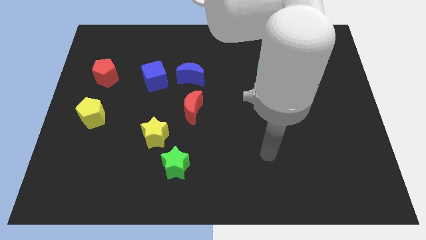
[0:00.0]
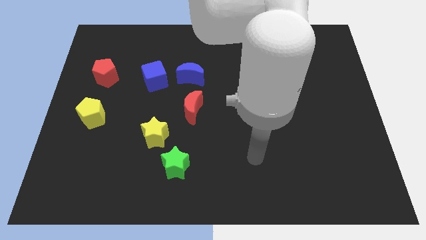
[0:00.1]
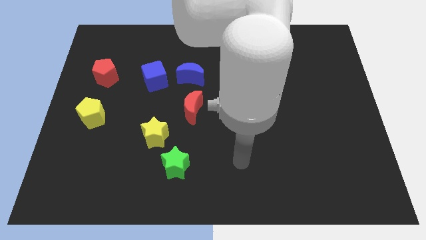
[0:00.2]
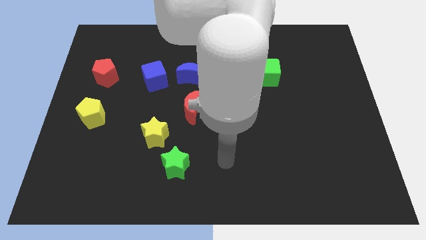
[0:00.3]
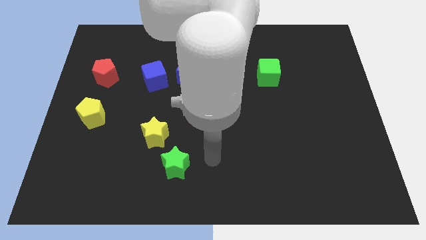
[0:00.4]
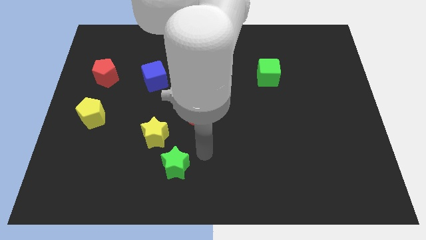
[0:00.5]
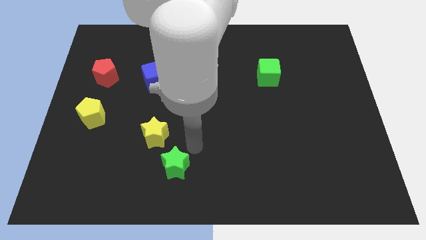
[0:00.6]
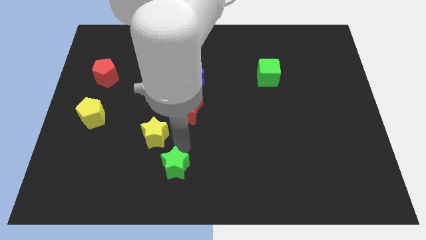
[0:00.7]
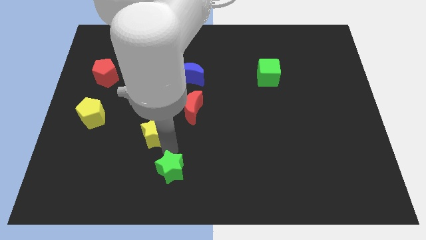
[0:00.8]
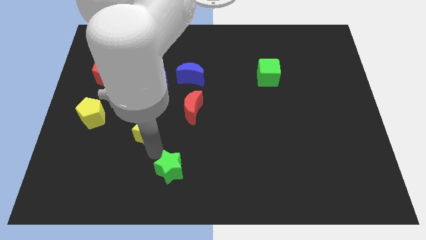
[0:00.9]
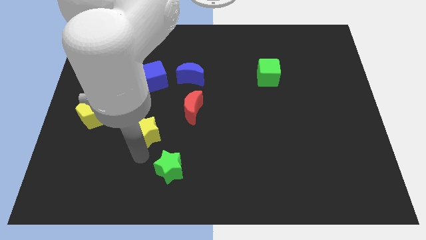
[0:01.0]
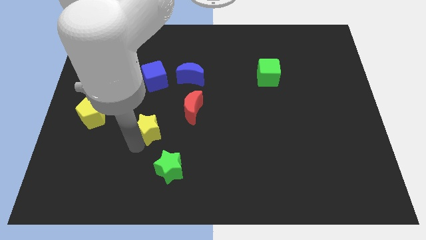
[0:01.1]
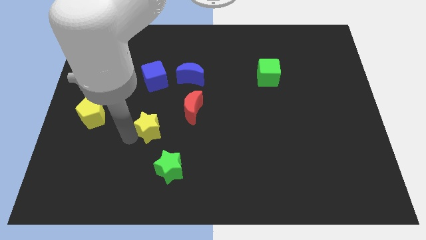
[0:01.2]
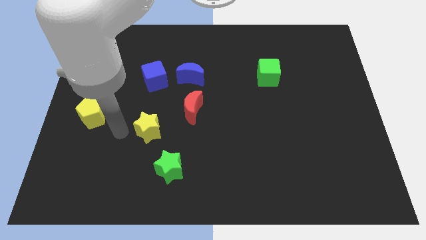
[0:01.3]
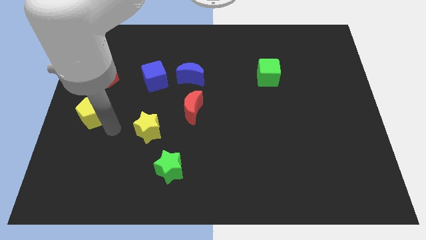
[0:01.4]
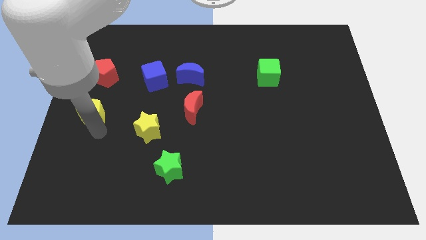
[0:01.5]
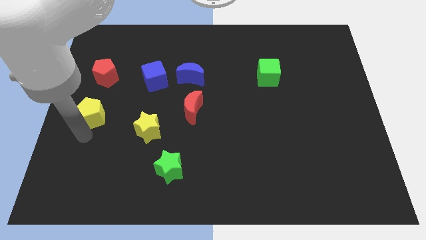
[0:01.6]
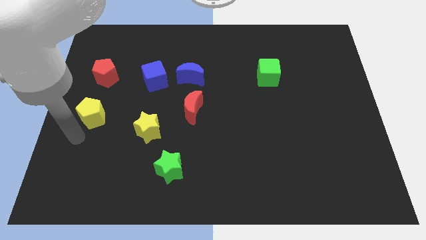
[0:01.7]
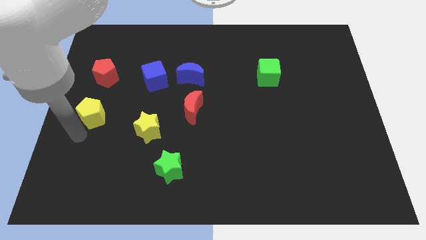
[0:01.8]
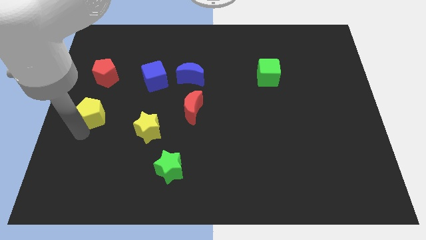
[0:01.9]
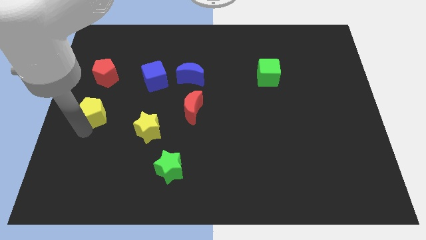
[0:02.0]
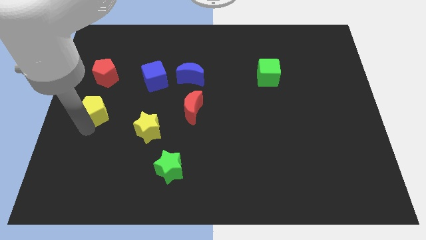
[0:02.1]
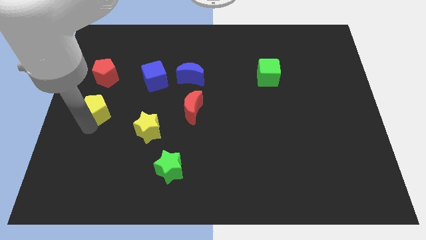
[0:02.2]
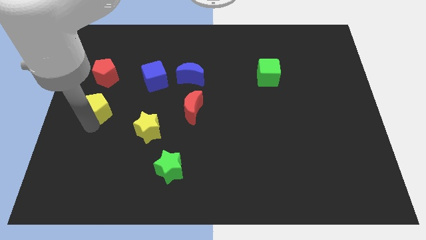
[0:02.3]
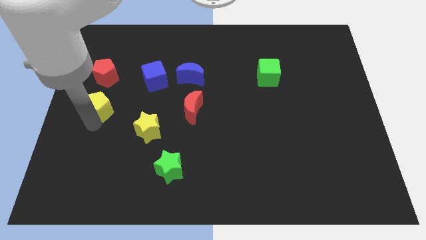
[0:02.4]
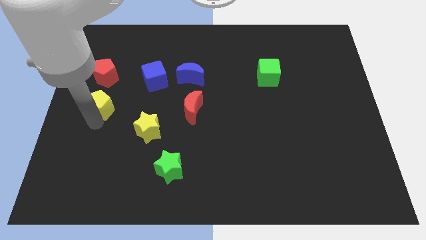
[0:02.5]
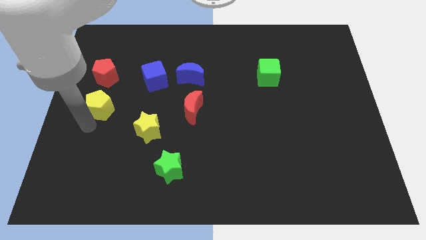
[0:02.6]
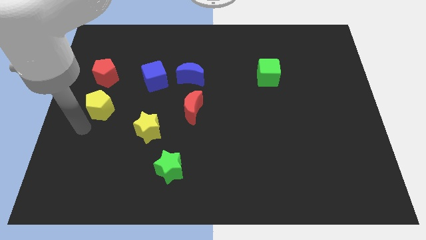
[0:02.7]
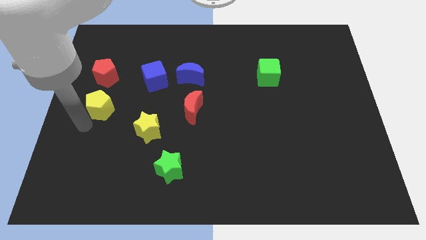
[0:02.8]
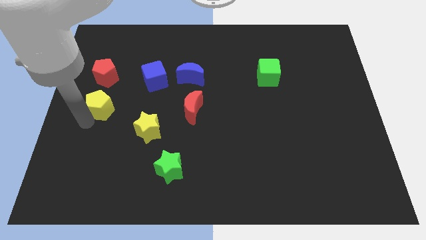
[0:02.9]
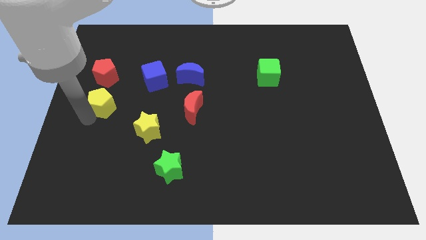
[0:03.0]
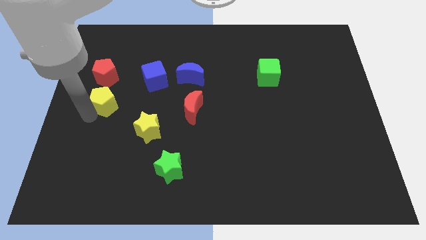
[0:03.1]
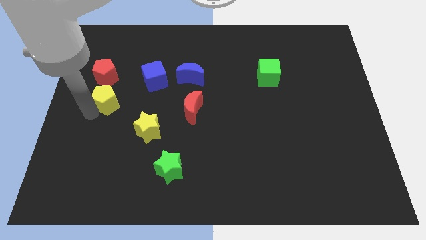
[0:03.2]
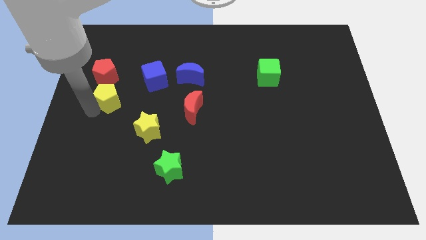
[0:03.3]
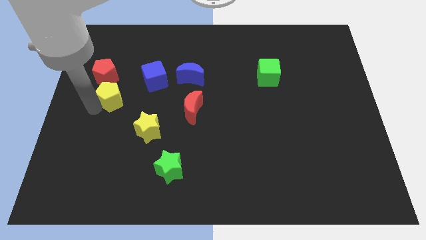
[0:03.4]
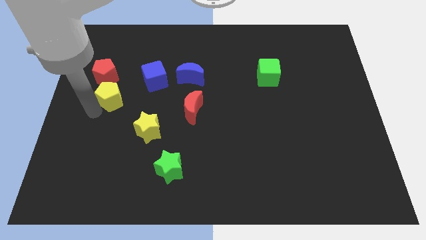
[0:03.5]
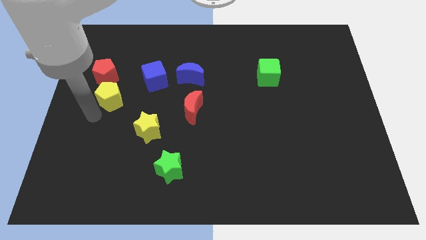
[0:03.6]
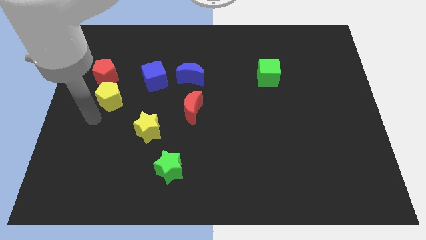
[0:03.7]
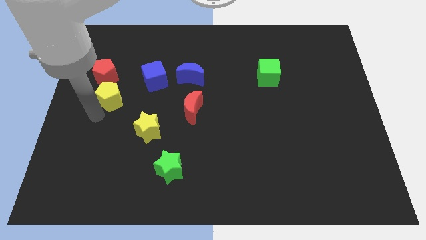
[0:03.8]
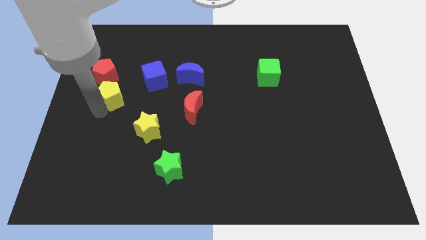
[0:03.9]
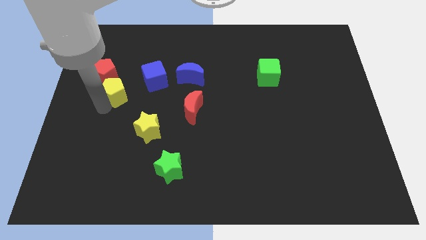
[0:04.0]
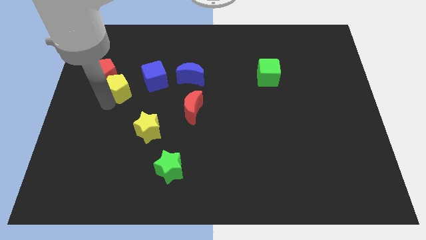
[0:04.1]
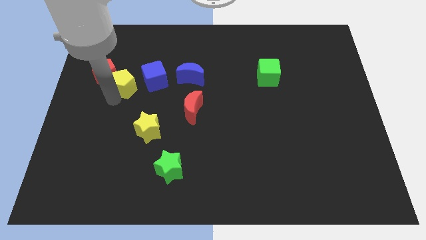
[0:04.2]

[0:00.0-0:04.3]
push the yellow pentagon a little upwards

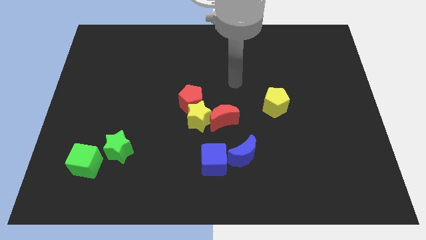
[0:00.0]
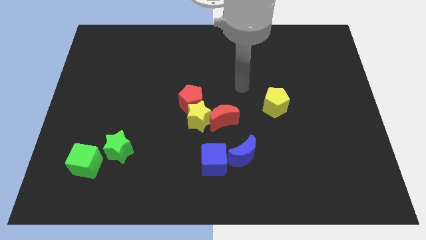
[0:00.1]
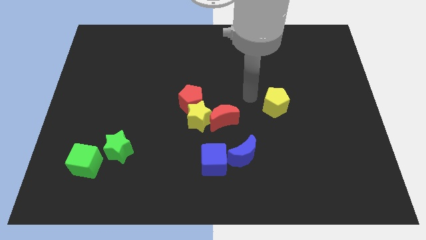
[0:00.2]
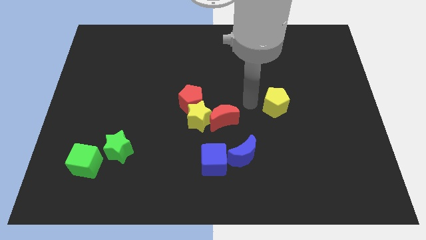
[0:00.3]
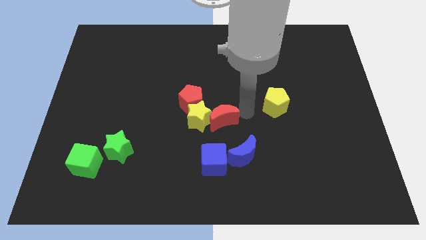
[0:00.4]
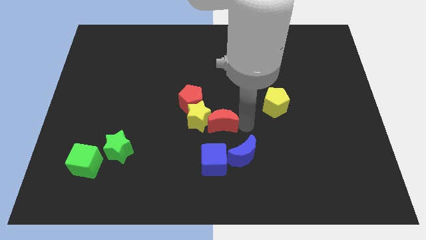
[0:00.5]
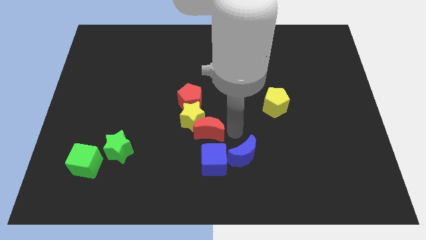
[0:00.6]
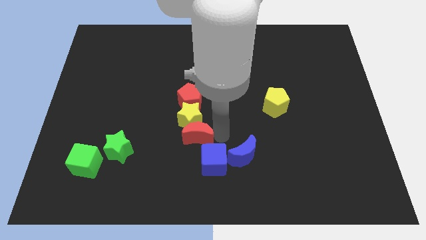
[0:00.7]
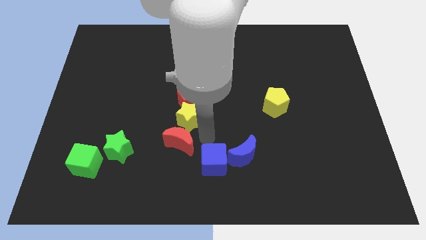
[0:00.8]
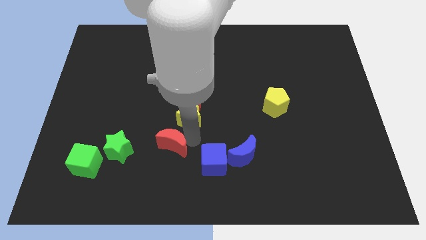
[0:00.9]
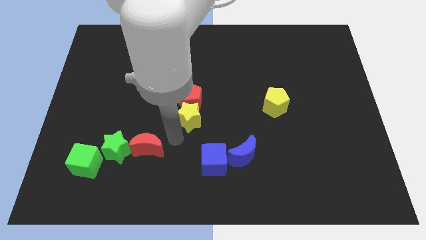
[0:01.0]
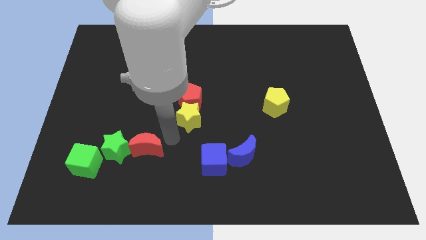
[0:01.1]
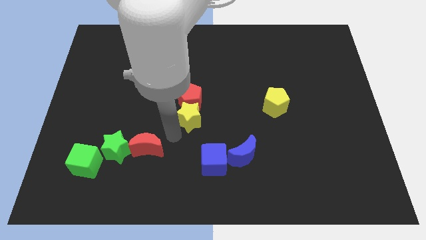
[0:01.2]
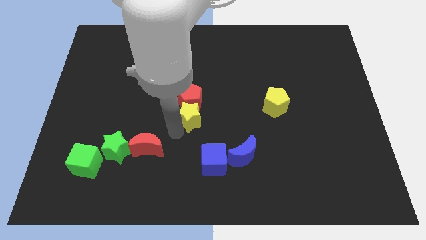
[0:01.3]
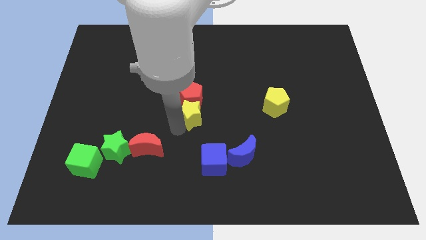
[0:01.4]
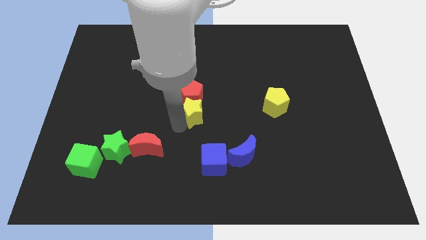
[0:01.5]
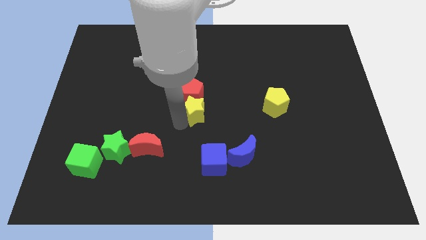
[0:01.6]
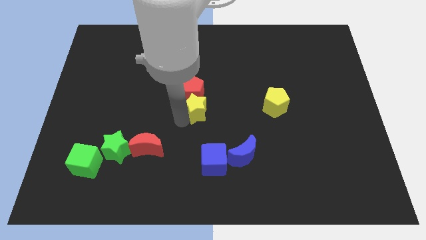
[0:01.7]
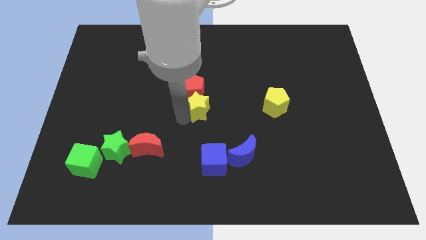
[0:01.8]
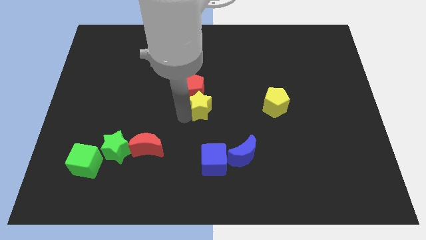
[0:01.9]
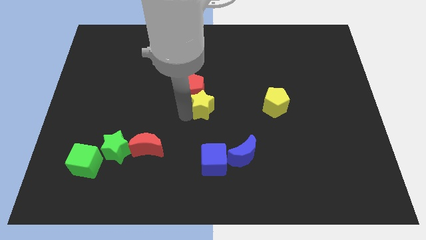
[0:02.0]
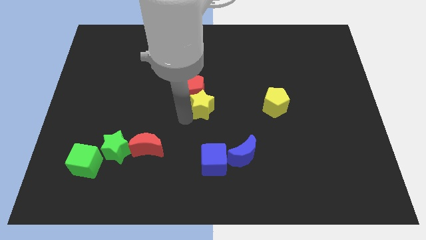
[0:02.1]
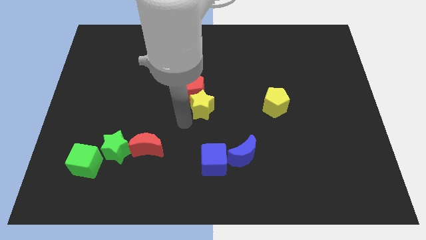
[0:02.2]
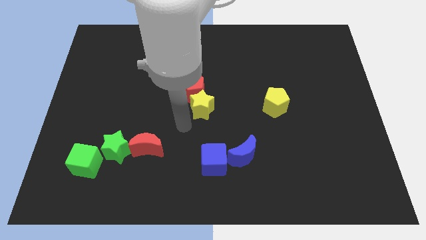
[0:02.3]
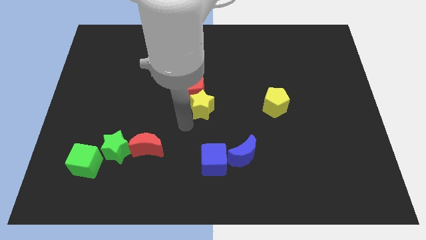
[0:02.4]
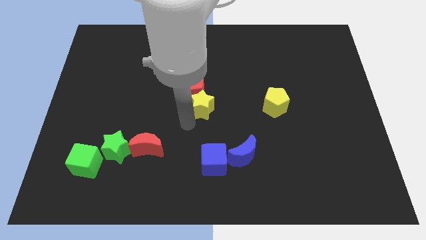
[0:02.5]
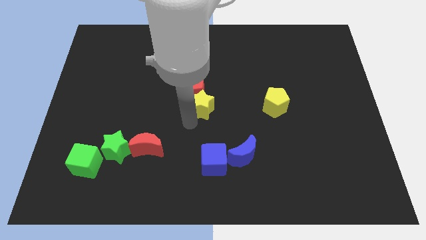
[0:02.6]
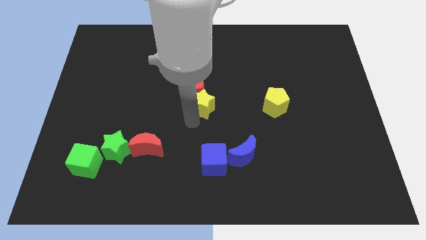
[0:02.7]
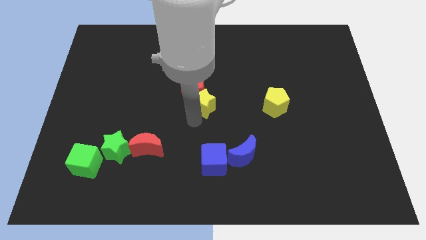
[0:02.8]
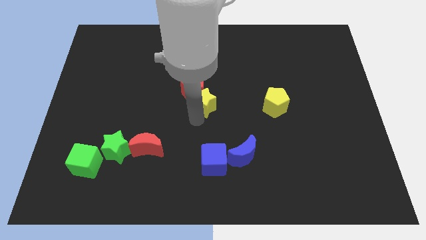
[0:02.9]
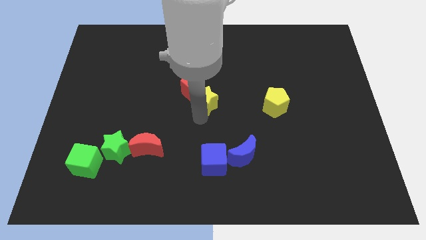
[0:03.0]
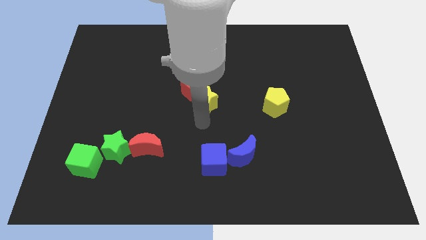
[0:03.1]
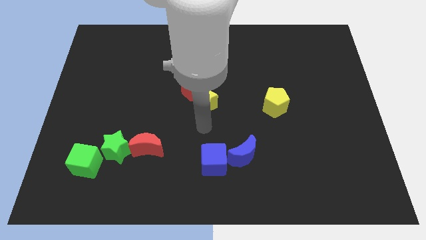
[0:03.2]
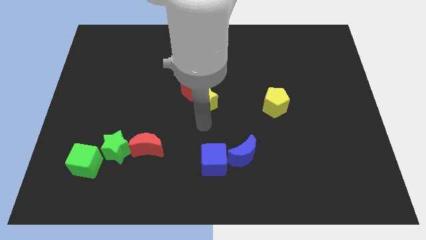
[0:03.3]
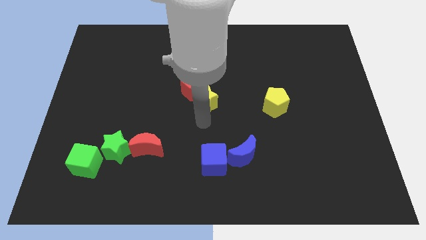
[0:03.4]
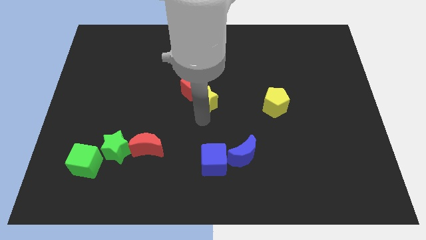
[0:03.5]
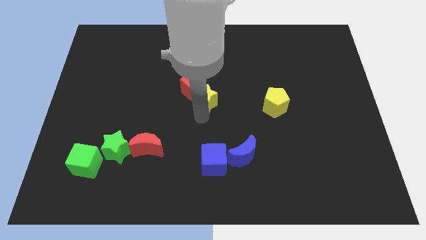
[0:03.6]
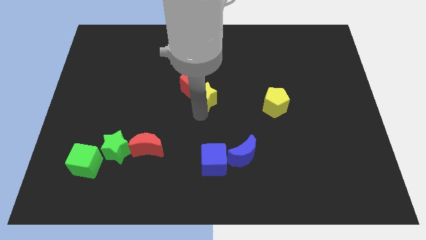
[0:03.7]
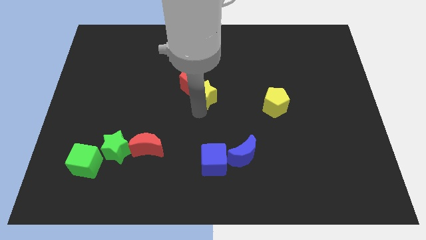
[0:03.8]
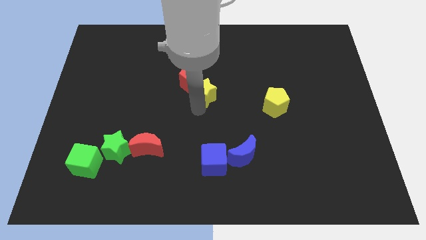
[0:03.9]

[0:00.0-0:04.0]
slightly push the yellow star upwards

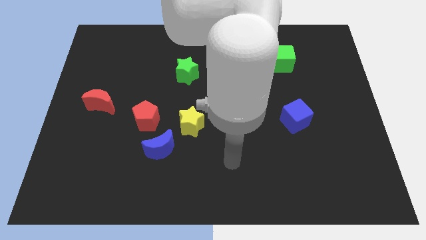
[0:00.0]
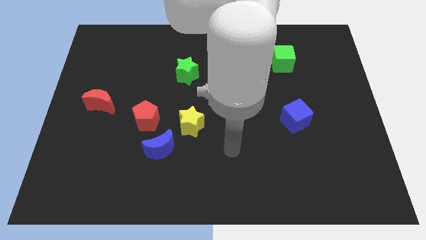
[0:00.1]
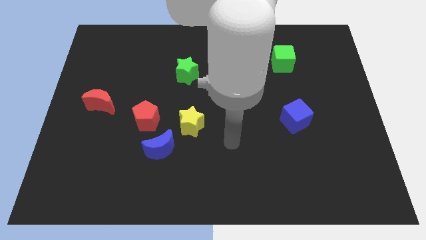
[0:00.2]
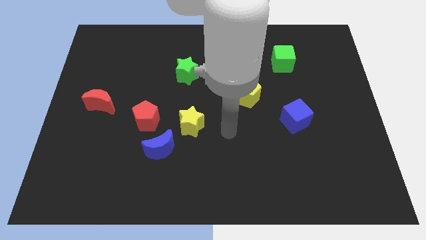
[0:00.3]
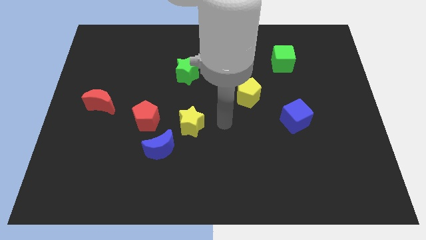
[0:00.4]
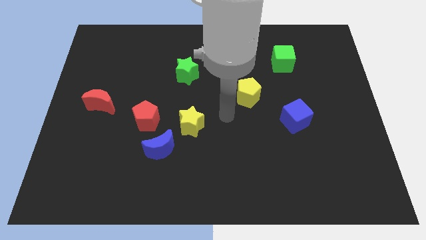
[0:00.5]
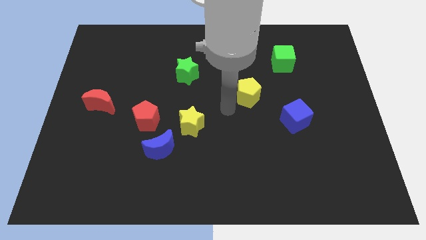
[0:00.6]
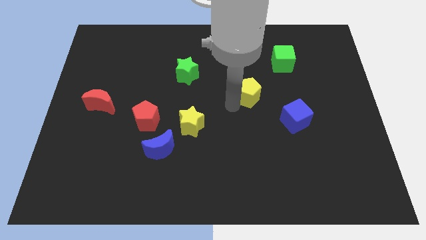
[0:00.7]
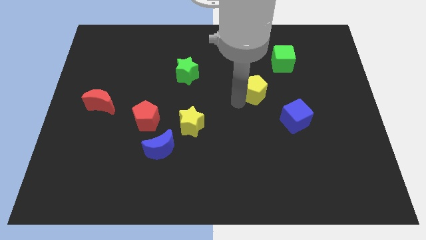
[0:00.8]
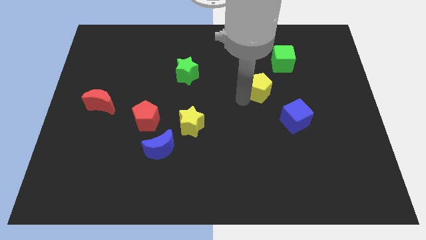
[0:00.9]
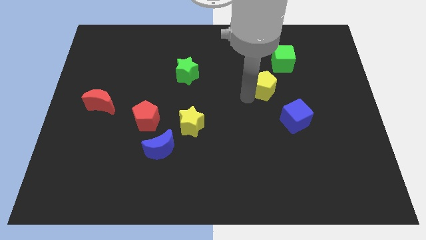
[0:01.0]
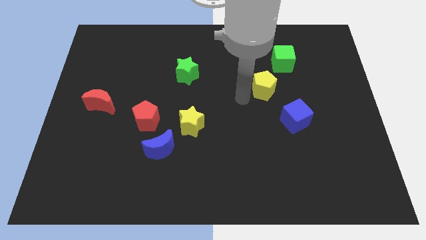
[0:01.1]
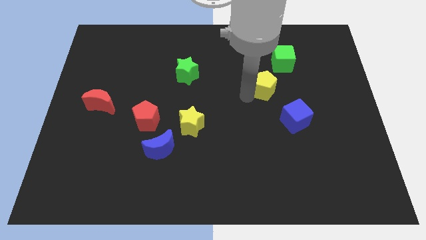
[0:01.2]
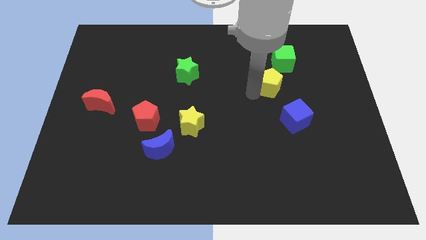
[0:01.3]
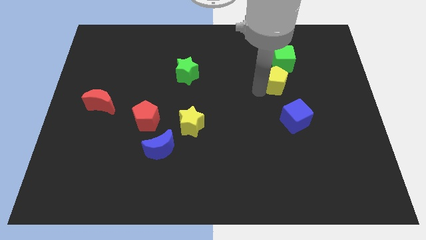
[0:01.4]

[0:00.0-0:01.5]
slightly push the yellow pentagon diagonally upwards and right
